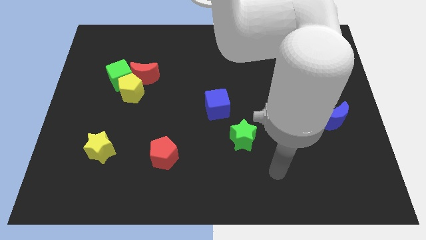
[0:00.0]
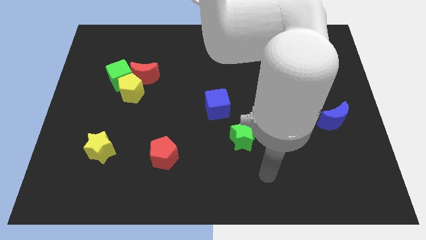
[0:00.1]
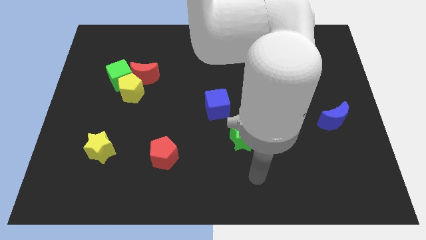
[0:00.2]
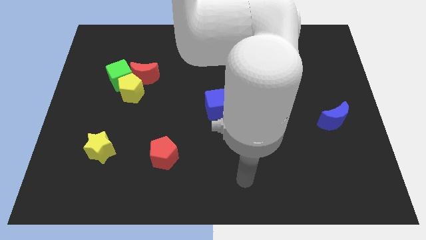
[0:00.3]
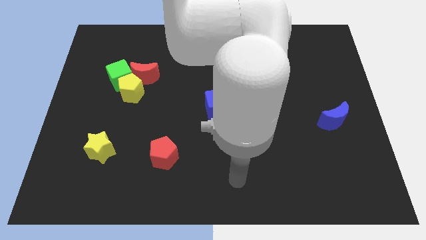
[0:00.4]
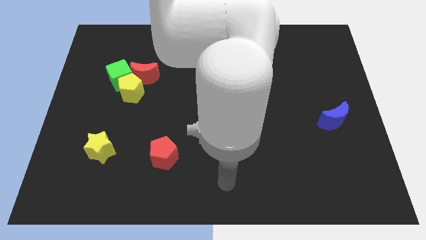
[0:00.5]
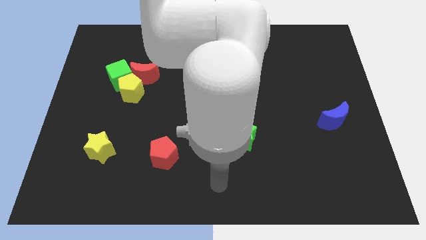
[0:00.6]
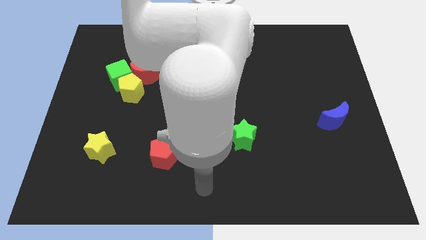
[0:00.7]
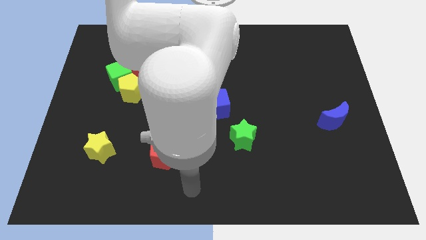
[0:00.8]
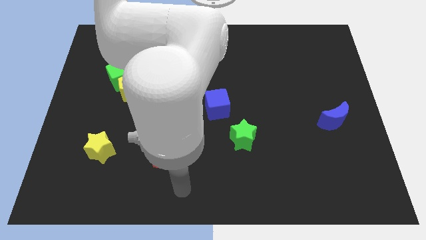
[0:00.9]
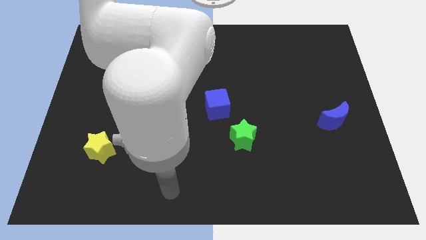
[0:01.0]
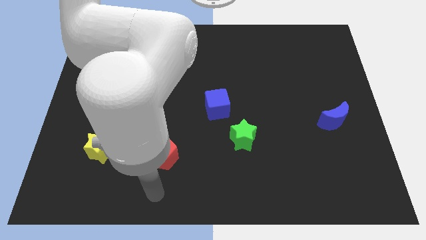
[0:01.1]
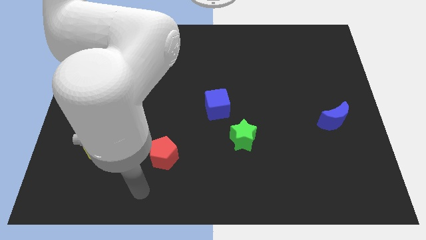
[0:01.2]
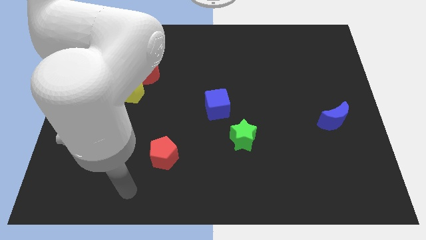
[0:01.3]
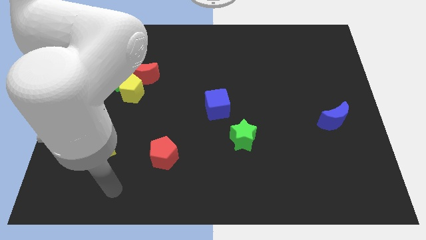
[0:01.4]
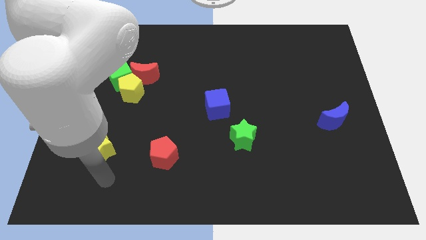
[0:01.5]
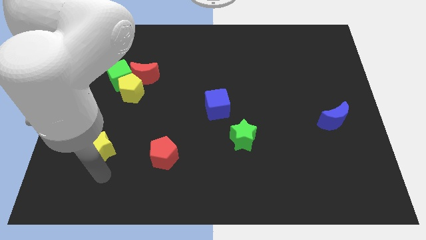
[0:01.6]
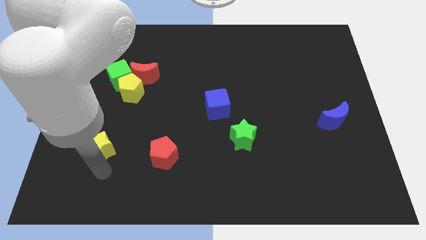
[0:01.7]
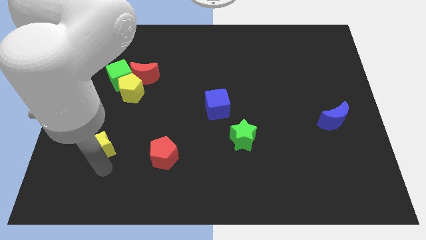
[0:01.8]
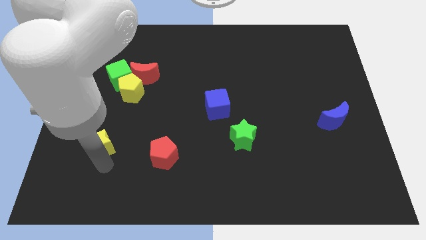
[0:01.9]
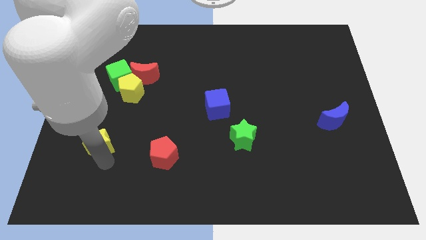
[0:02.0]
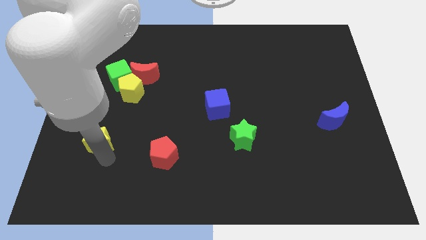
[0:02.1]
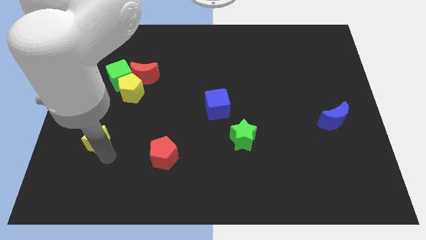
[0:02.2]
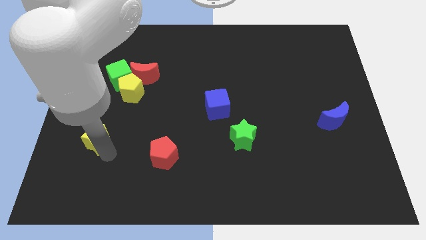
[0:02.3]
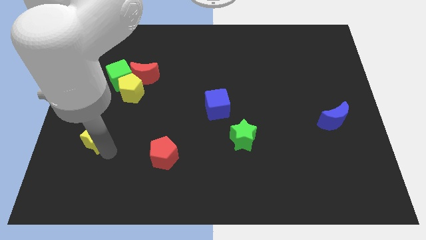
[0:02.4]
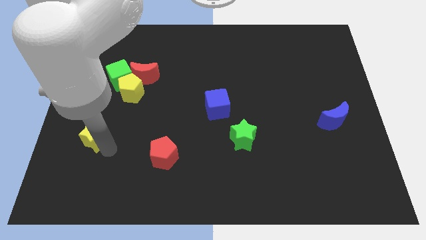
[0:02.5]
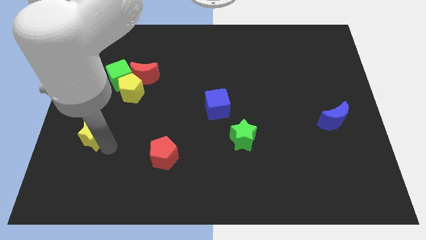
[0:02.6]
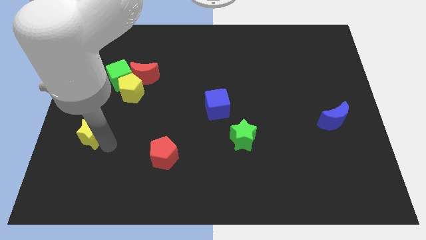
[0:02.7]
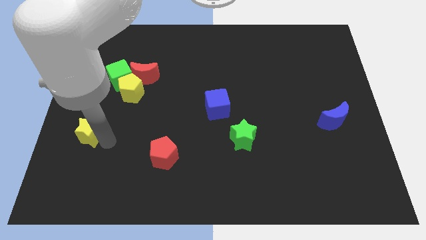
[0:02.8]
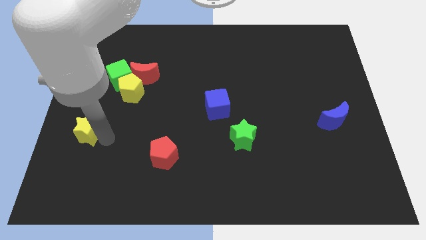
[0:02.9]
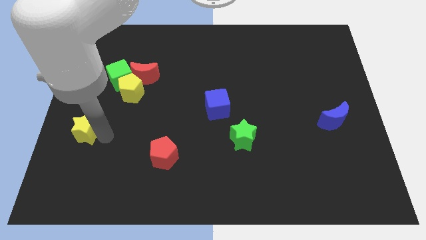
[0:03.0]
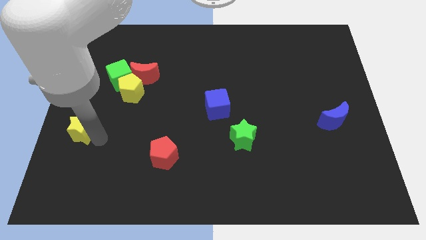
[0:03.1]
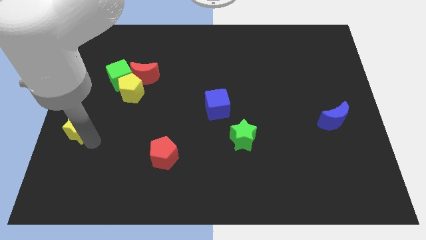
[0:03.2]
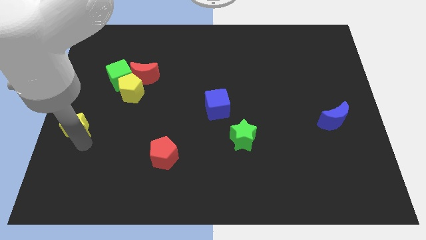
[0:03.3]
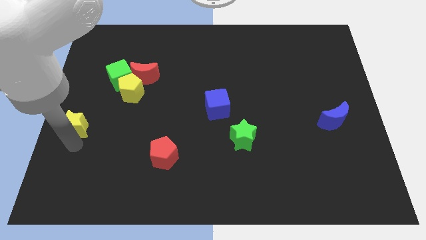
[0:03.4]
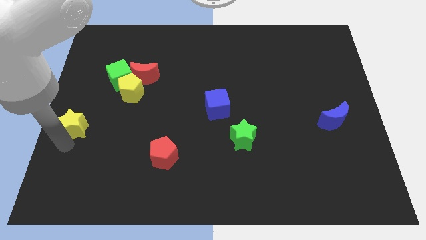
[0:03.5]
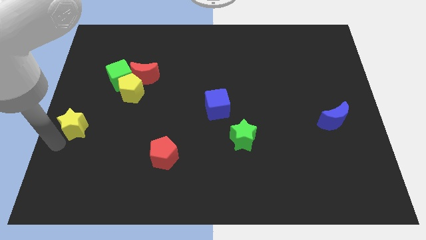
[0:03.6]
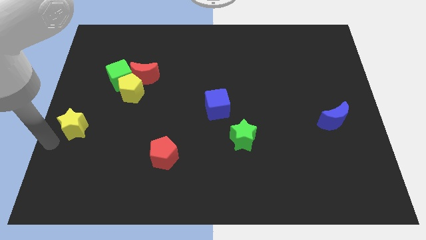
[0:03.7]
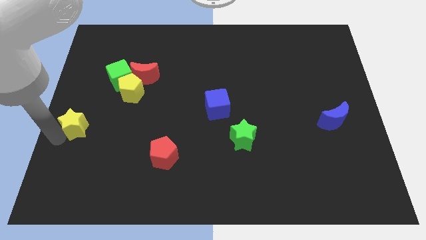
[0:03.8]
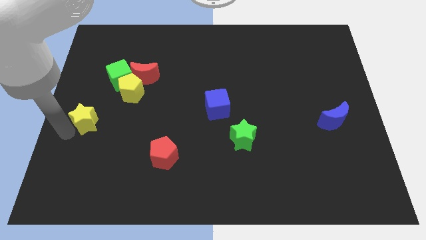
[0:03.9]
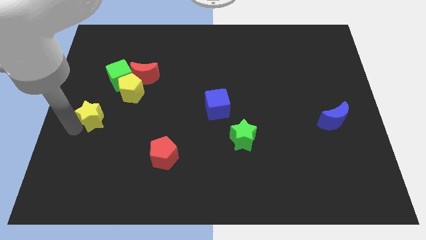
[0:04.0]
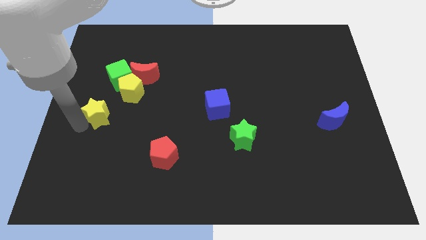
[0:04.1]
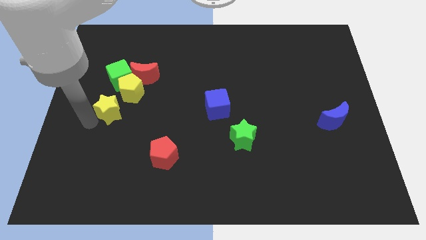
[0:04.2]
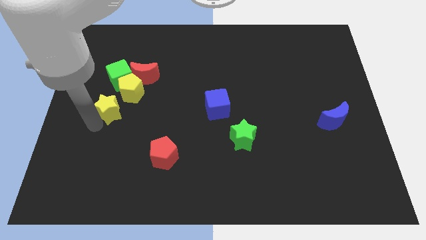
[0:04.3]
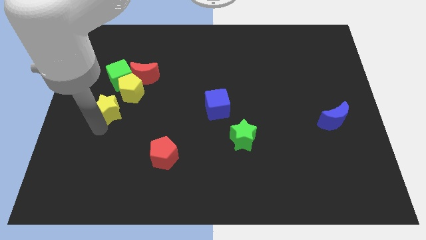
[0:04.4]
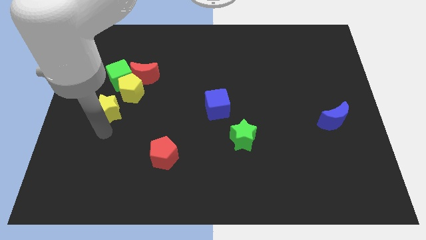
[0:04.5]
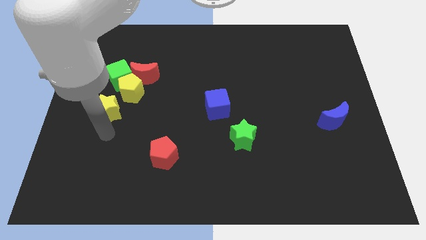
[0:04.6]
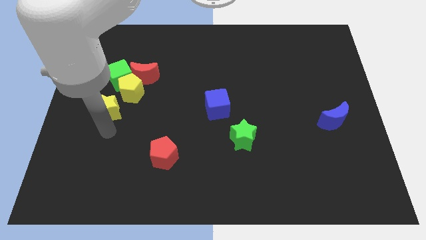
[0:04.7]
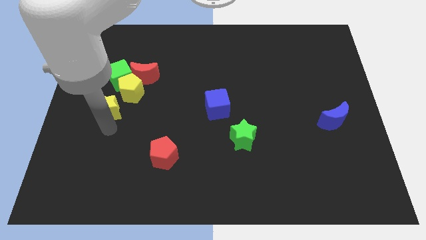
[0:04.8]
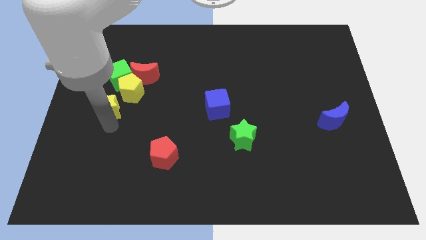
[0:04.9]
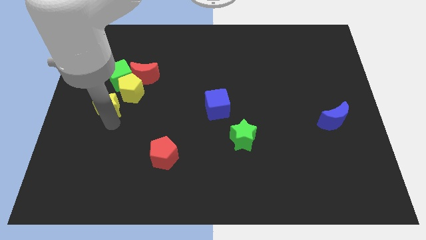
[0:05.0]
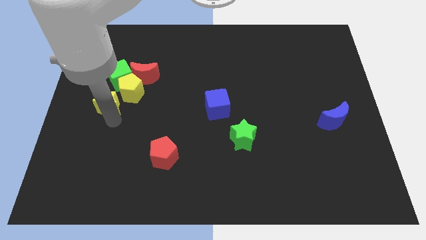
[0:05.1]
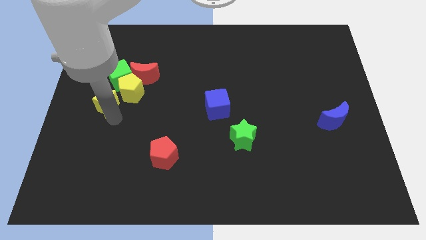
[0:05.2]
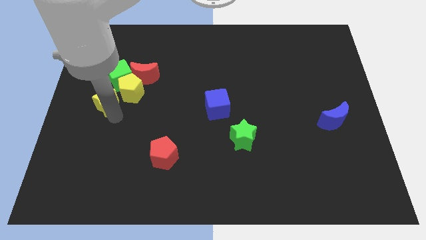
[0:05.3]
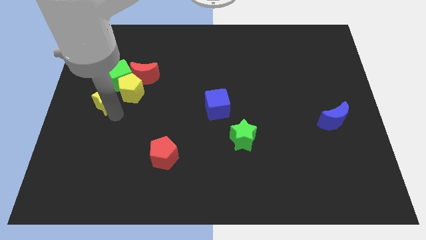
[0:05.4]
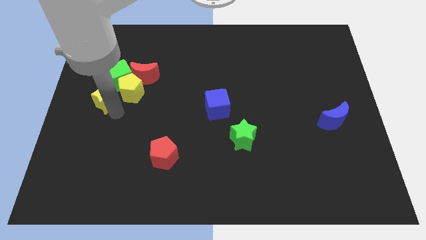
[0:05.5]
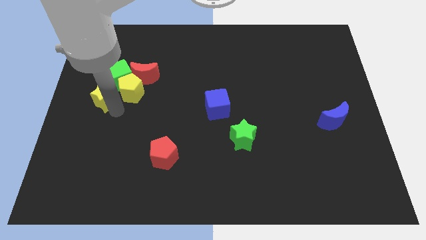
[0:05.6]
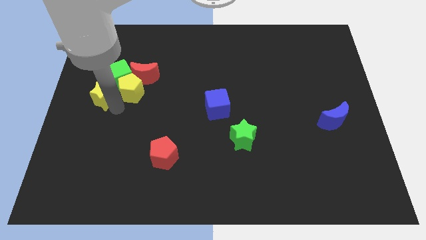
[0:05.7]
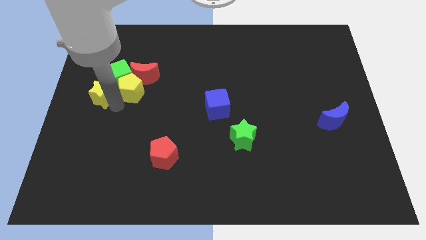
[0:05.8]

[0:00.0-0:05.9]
push the yellow star next to the green cube

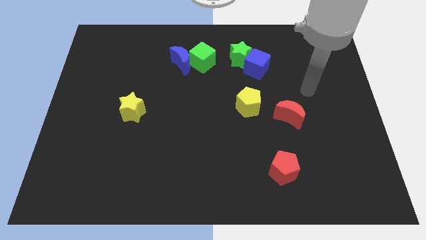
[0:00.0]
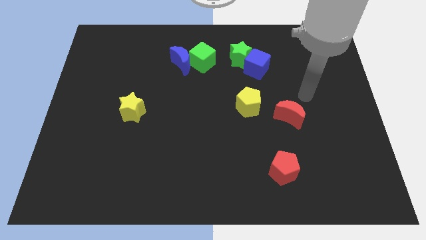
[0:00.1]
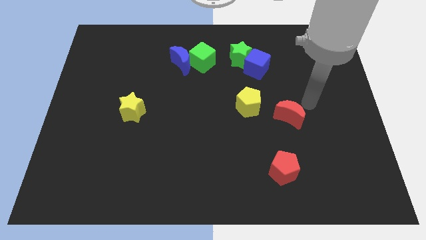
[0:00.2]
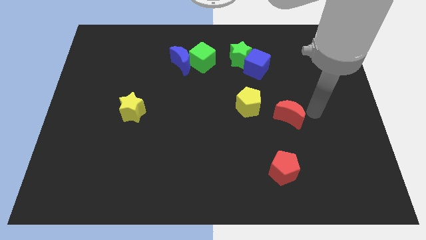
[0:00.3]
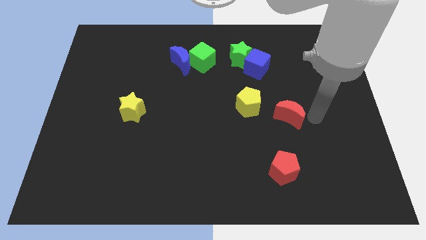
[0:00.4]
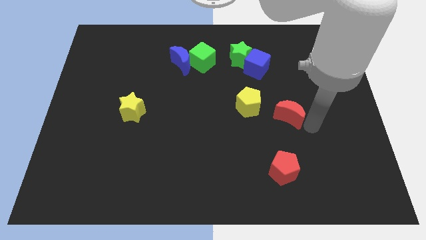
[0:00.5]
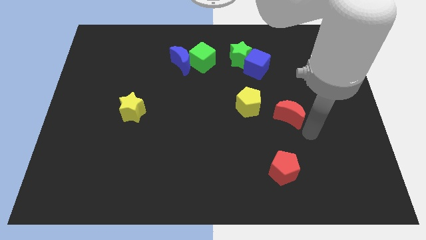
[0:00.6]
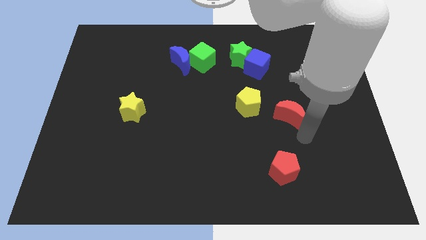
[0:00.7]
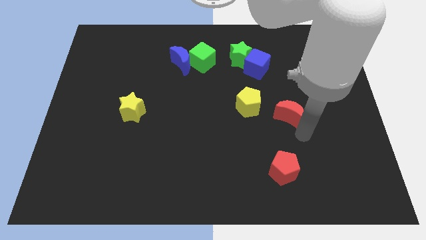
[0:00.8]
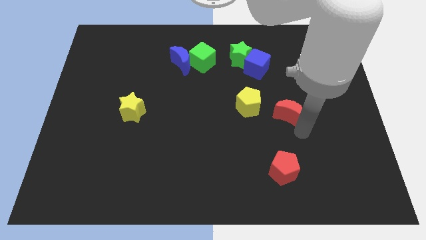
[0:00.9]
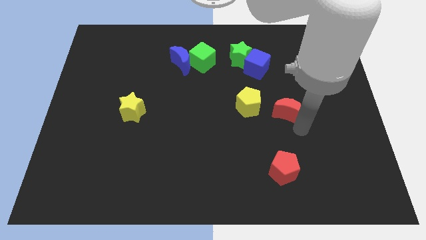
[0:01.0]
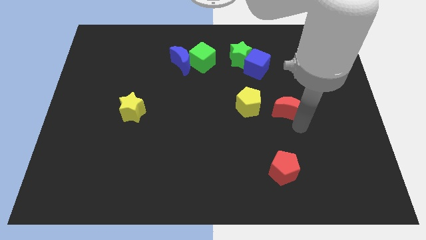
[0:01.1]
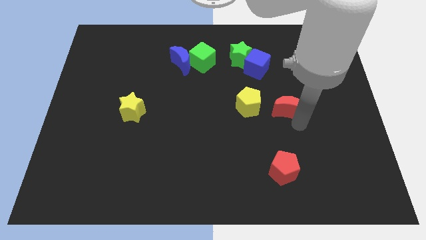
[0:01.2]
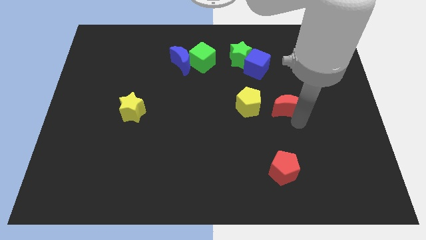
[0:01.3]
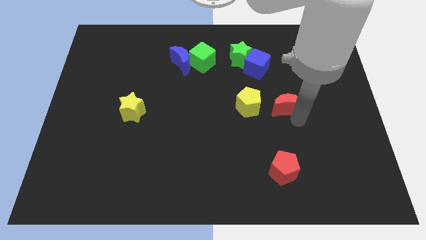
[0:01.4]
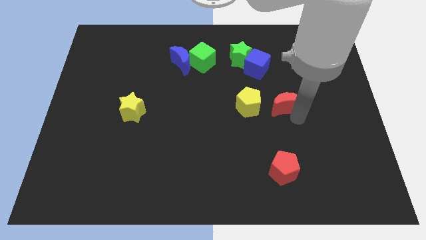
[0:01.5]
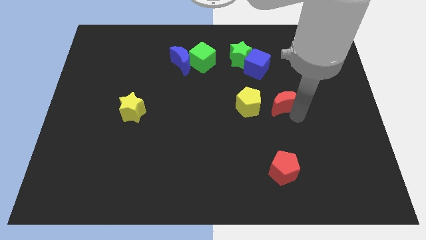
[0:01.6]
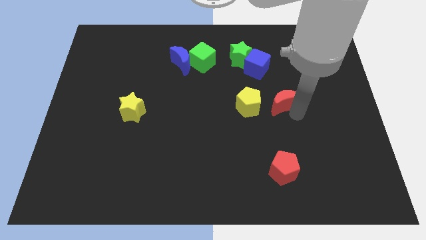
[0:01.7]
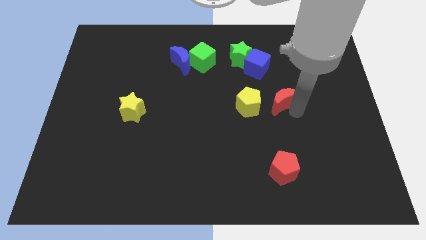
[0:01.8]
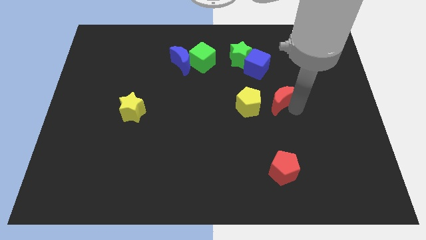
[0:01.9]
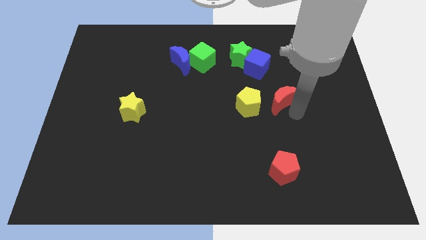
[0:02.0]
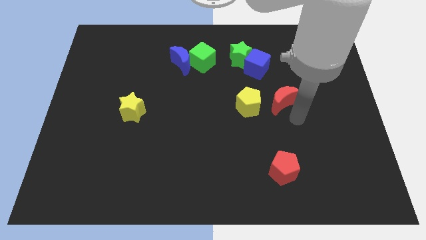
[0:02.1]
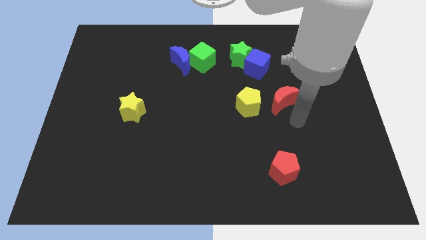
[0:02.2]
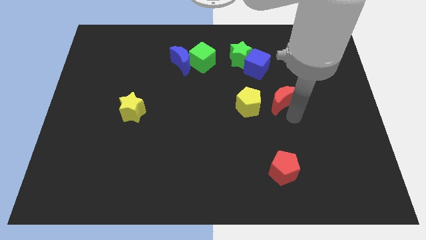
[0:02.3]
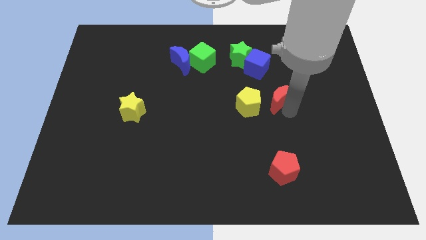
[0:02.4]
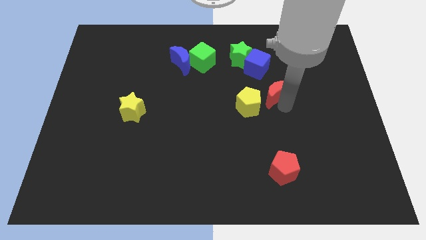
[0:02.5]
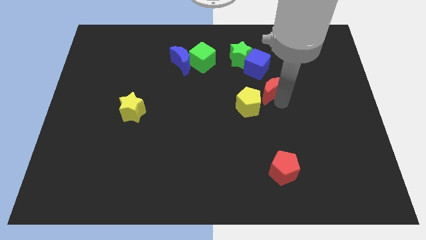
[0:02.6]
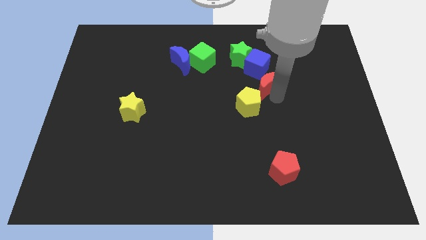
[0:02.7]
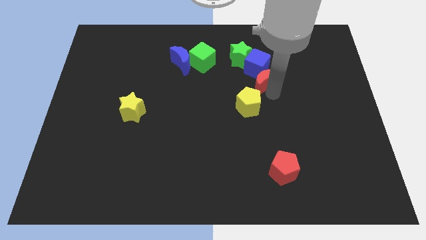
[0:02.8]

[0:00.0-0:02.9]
put the red moon next to the blue cube
